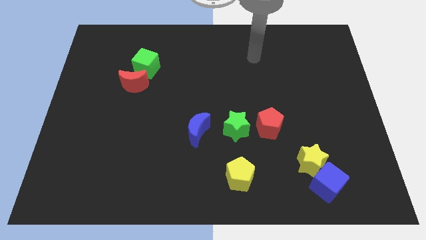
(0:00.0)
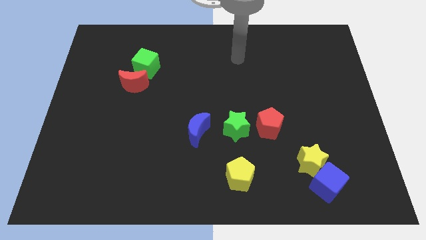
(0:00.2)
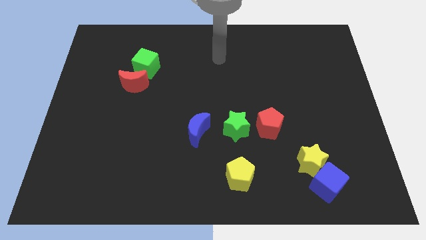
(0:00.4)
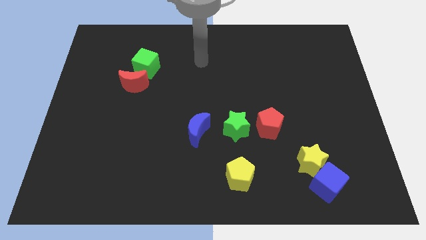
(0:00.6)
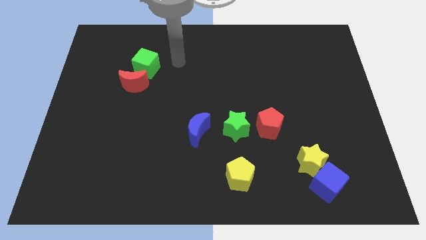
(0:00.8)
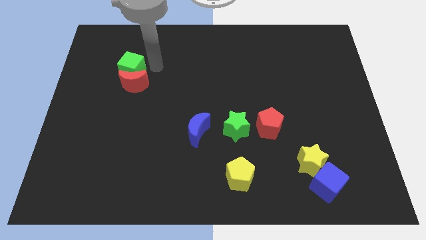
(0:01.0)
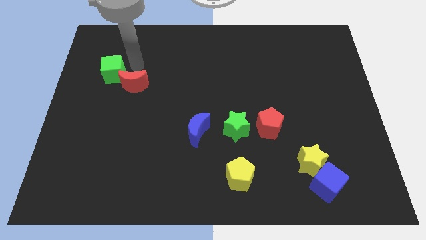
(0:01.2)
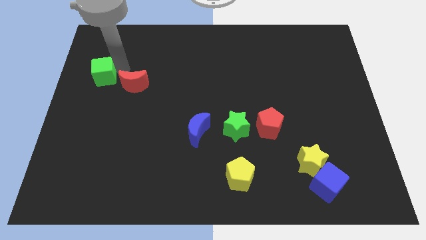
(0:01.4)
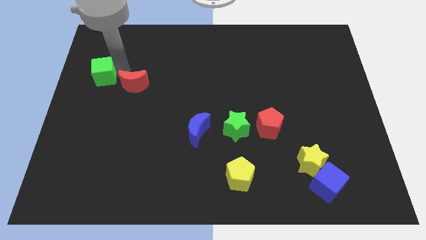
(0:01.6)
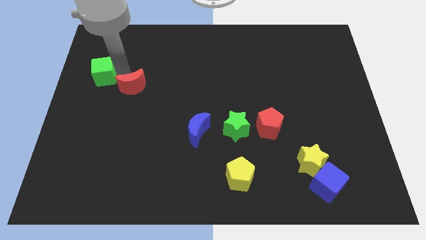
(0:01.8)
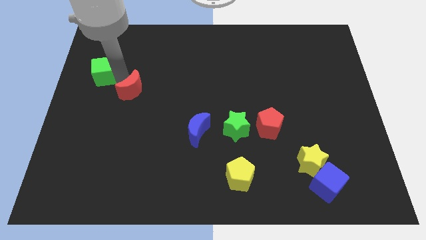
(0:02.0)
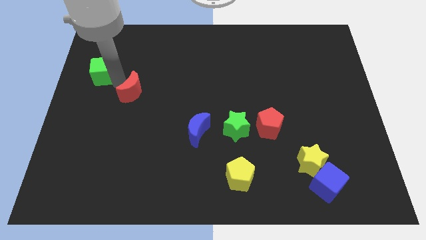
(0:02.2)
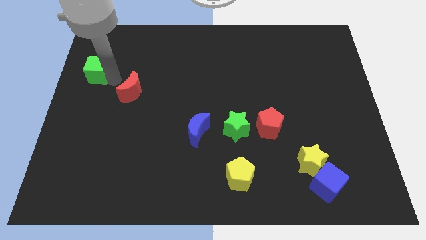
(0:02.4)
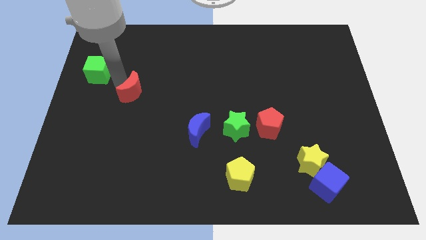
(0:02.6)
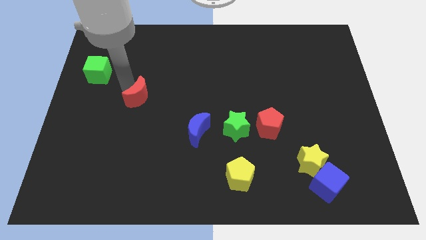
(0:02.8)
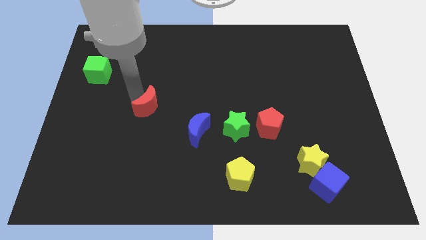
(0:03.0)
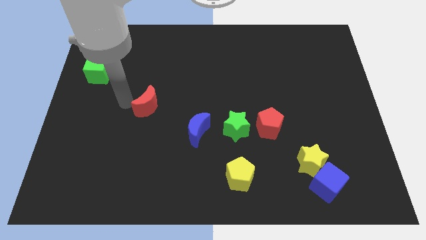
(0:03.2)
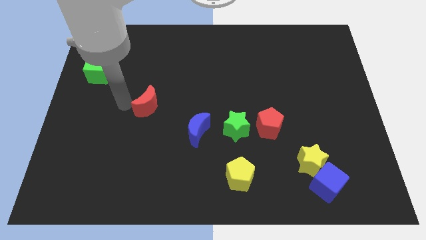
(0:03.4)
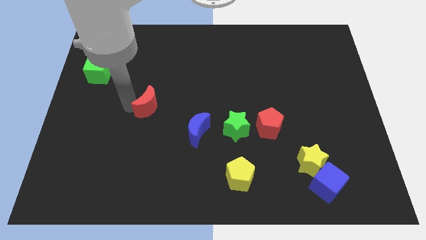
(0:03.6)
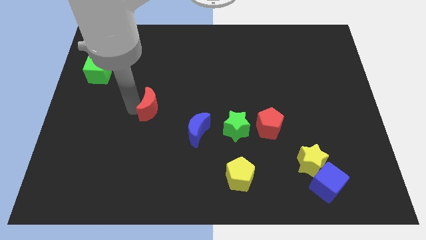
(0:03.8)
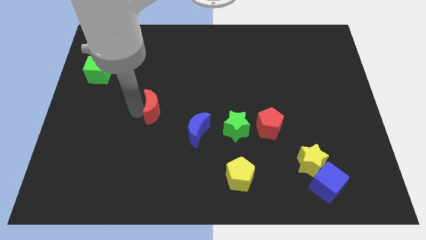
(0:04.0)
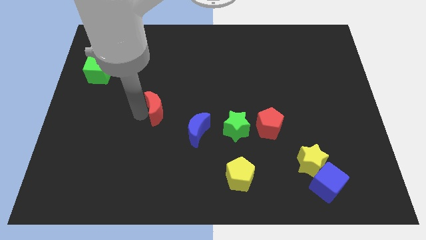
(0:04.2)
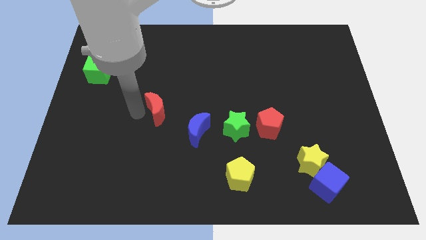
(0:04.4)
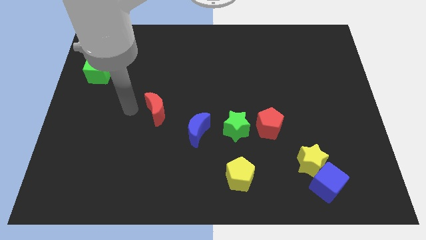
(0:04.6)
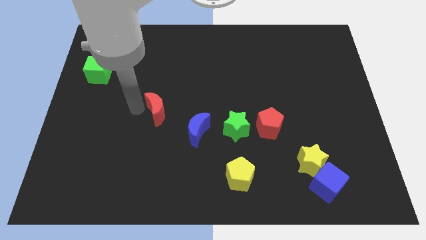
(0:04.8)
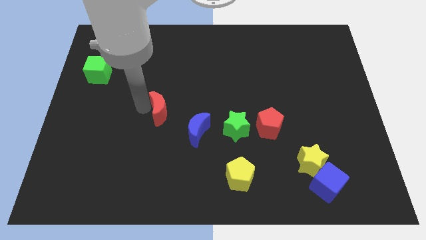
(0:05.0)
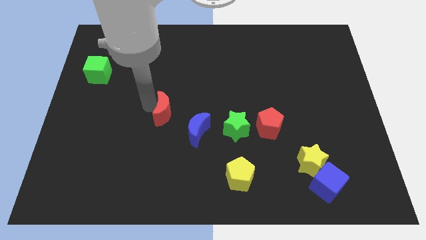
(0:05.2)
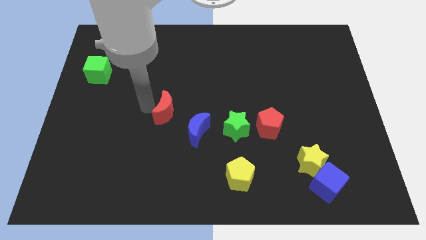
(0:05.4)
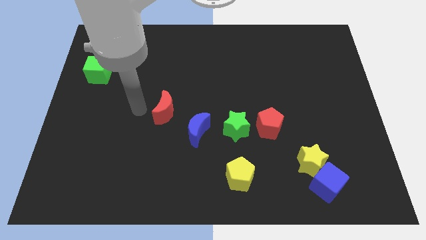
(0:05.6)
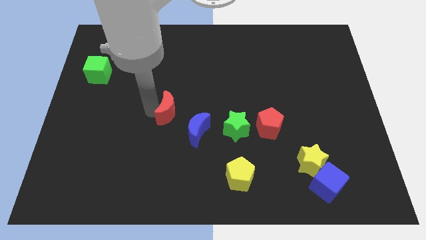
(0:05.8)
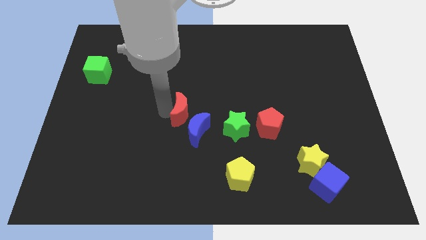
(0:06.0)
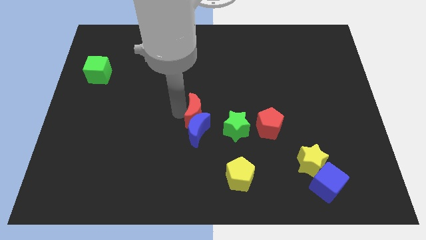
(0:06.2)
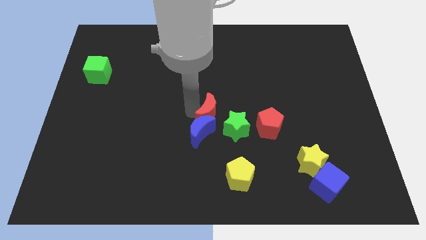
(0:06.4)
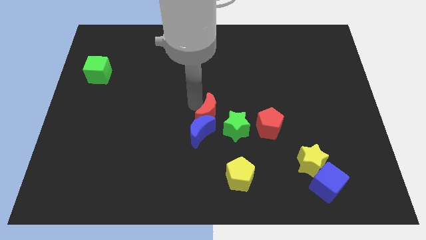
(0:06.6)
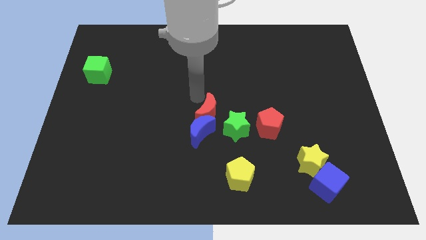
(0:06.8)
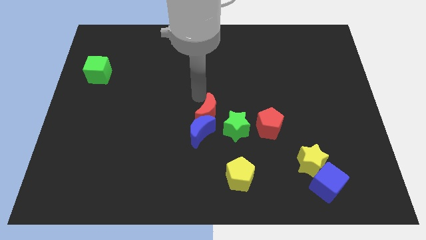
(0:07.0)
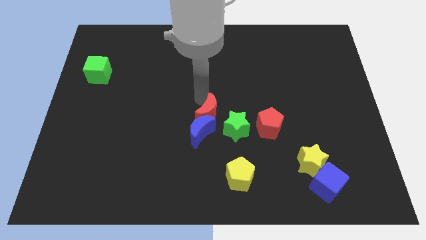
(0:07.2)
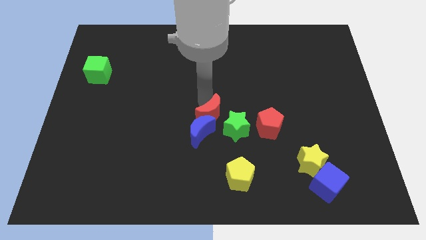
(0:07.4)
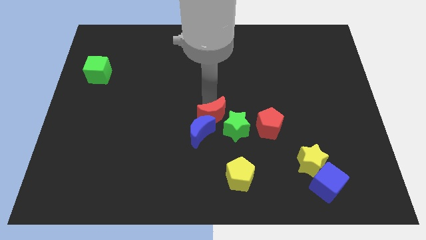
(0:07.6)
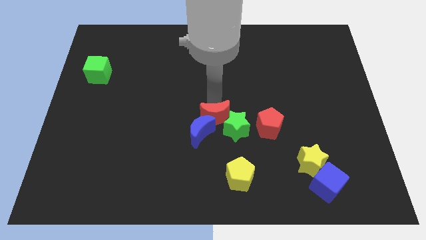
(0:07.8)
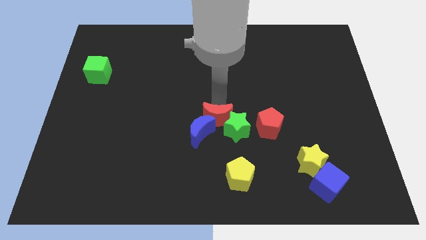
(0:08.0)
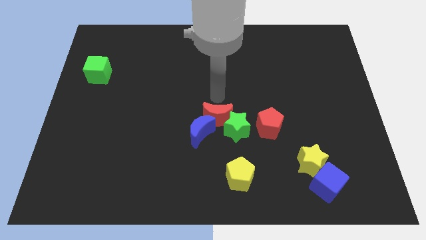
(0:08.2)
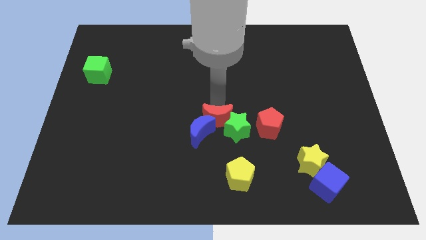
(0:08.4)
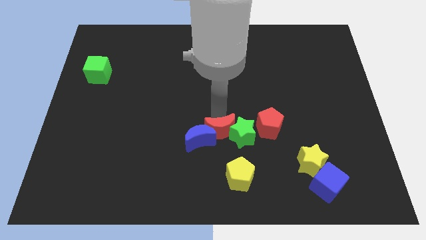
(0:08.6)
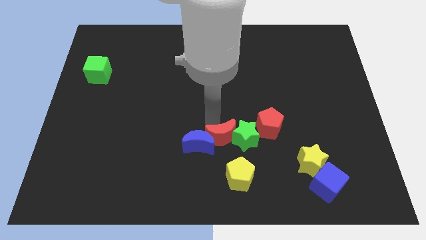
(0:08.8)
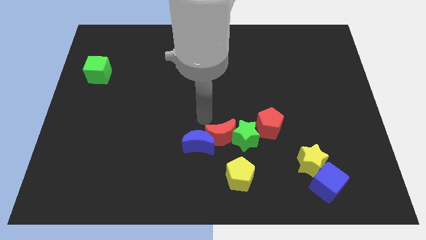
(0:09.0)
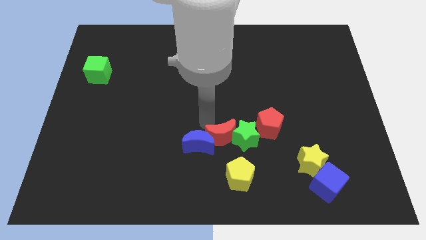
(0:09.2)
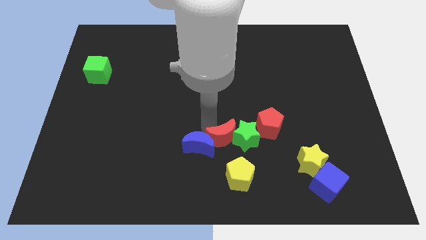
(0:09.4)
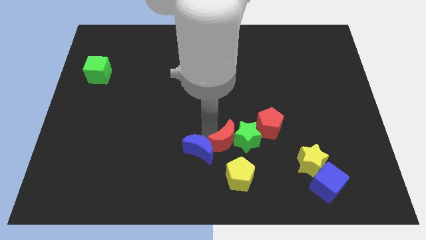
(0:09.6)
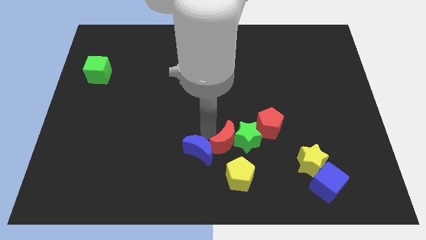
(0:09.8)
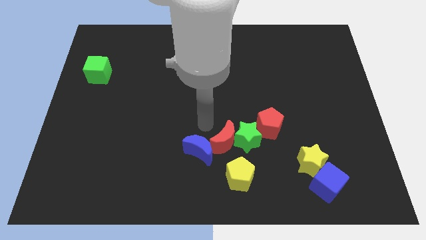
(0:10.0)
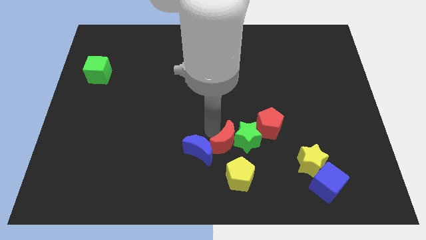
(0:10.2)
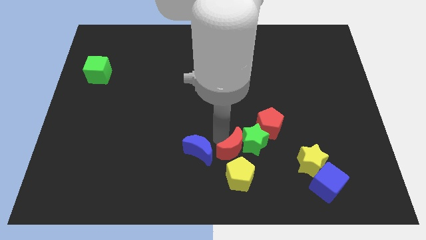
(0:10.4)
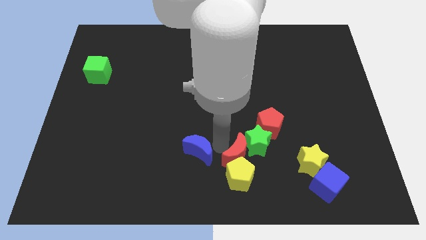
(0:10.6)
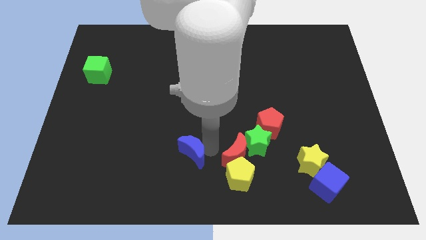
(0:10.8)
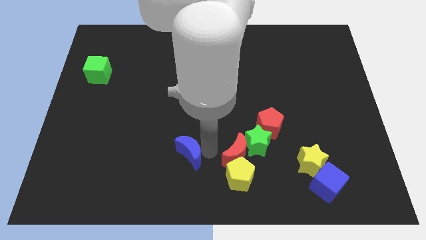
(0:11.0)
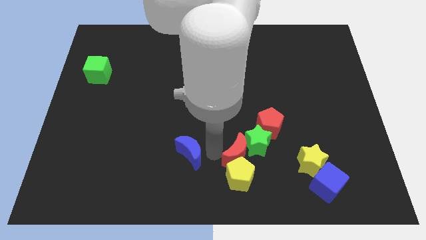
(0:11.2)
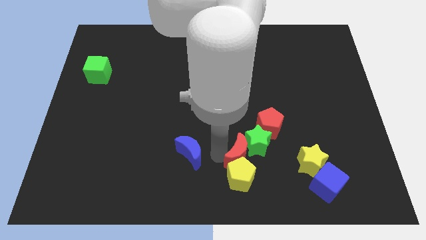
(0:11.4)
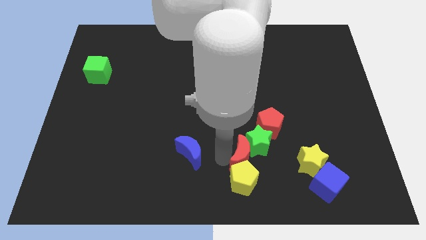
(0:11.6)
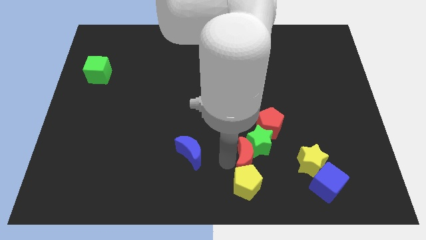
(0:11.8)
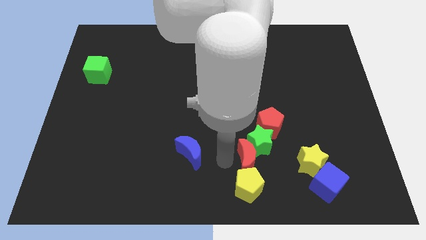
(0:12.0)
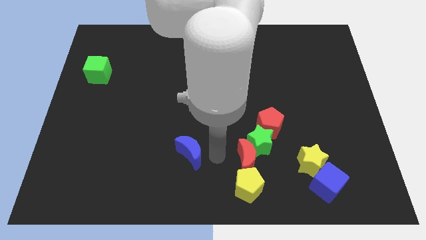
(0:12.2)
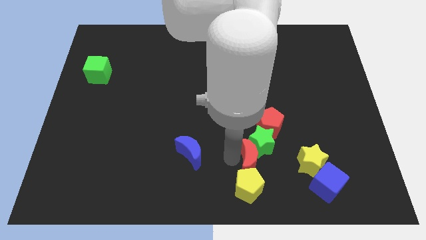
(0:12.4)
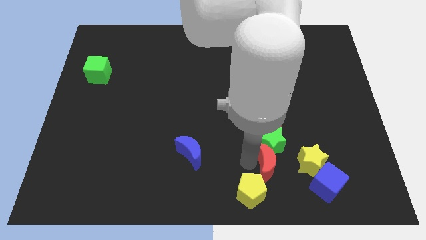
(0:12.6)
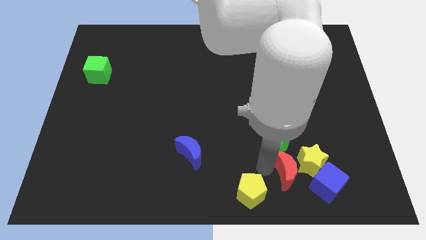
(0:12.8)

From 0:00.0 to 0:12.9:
slide the red moon towards the yellow star

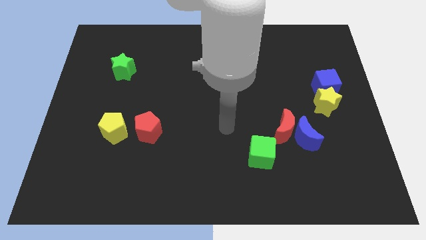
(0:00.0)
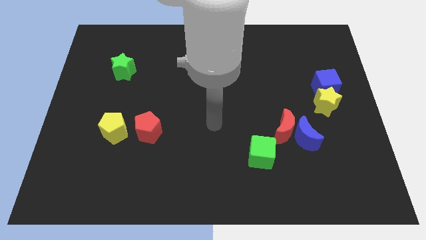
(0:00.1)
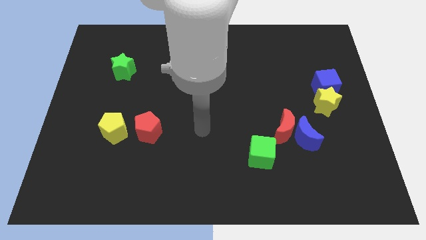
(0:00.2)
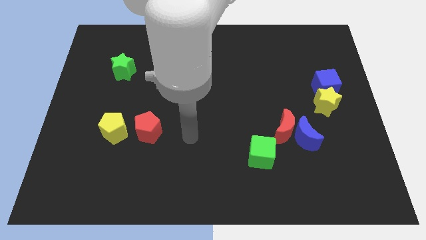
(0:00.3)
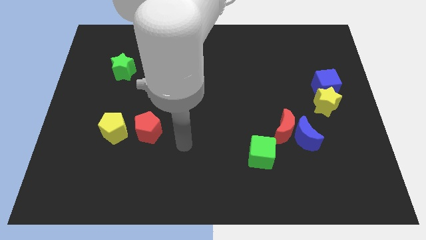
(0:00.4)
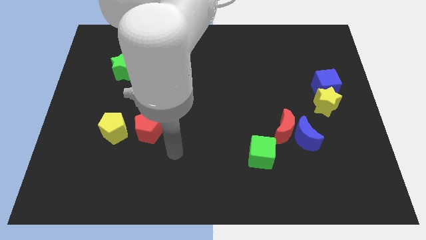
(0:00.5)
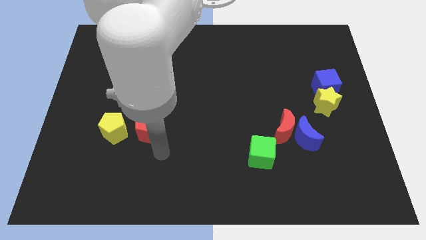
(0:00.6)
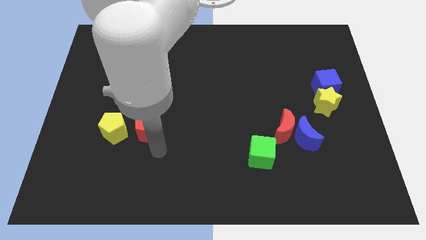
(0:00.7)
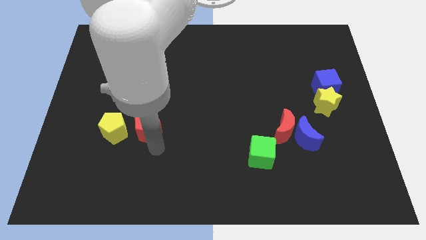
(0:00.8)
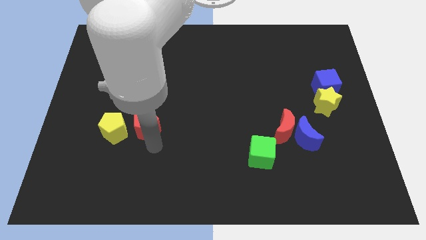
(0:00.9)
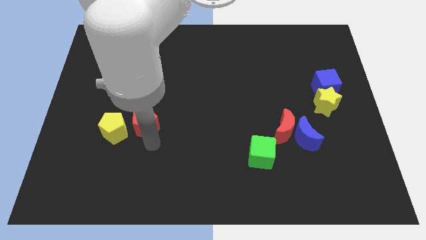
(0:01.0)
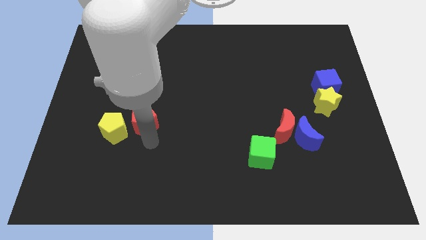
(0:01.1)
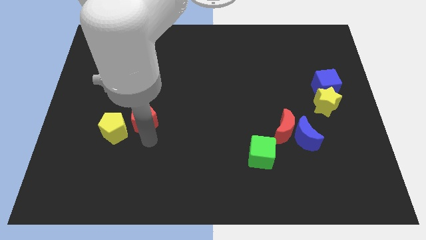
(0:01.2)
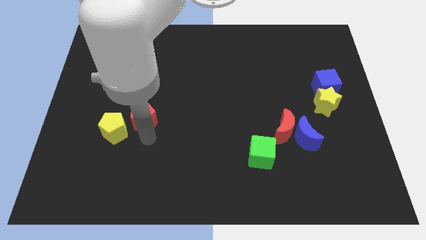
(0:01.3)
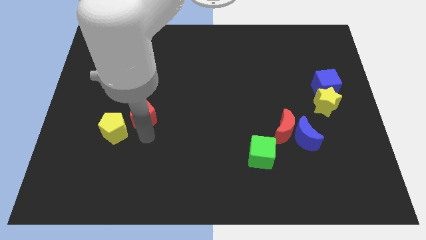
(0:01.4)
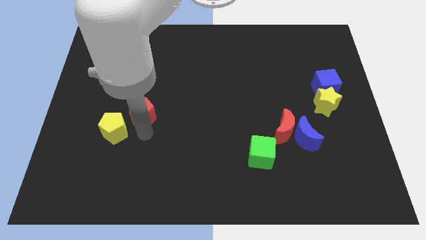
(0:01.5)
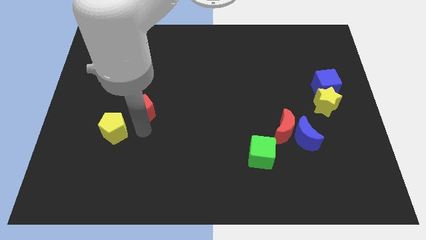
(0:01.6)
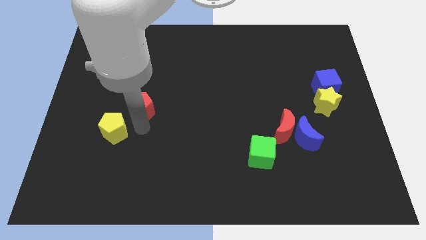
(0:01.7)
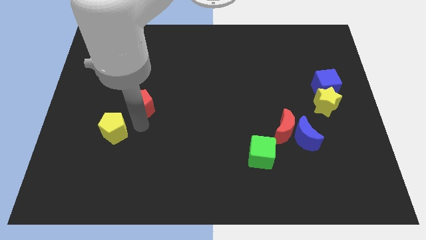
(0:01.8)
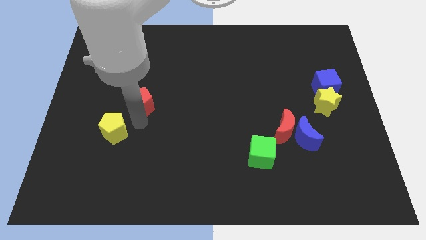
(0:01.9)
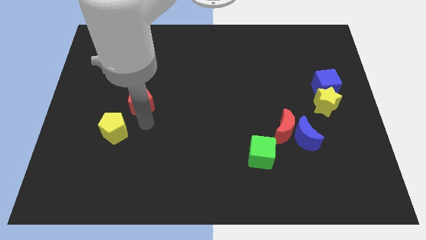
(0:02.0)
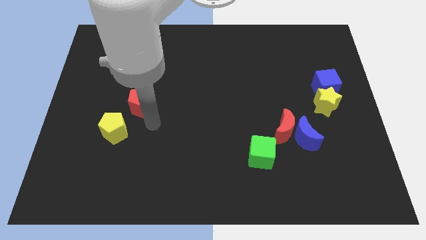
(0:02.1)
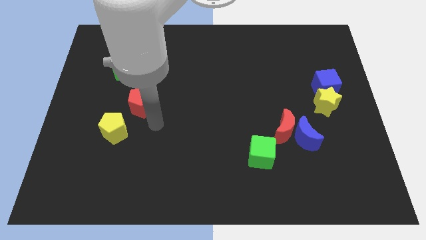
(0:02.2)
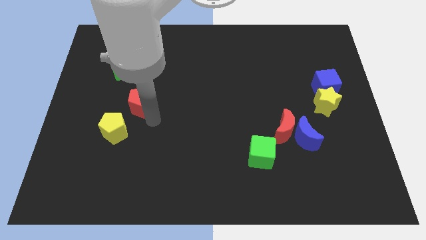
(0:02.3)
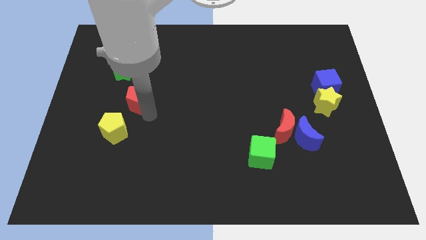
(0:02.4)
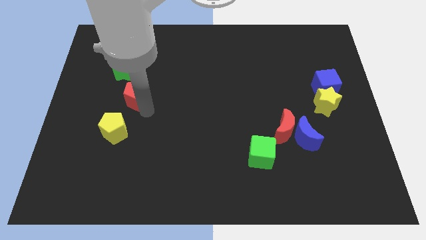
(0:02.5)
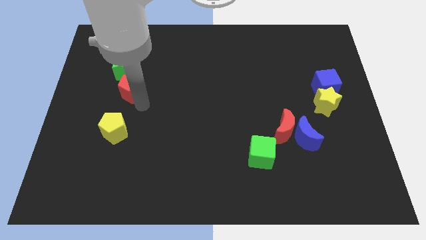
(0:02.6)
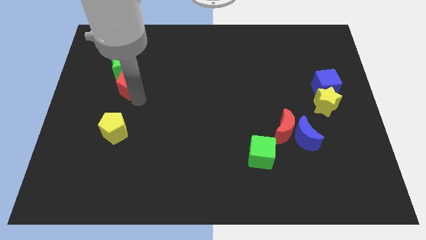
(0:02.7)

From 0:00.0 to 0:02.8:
slide the red pentagon to the green star
